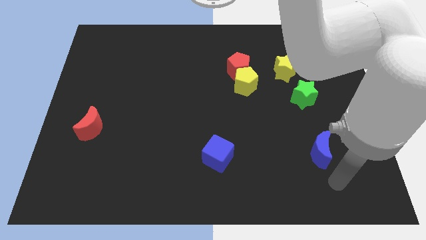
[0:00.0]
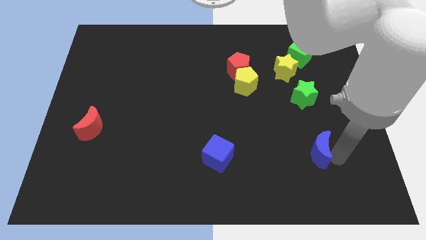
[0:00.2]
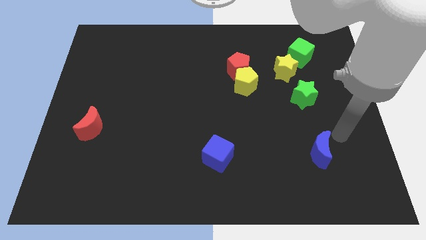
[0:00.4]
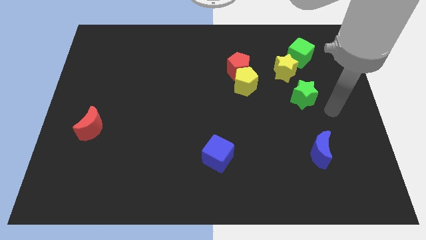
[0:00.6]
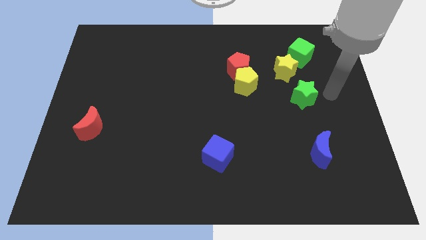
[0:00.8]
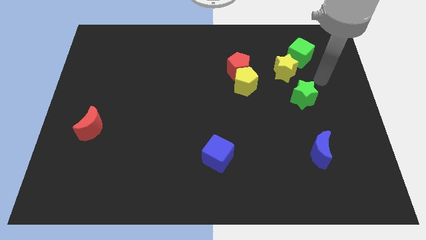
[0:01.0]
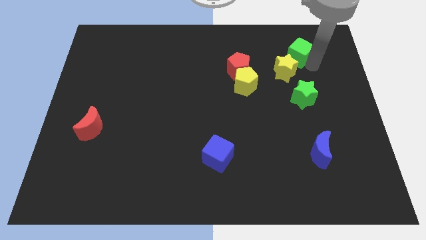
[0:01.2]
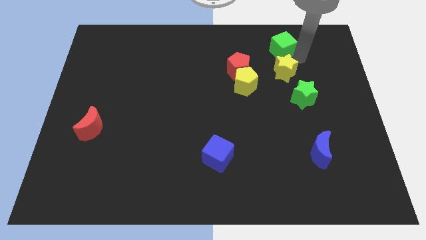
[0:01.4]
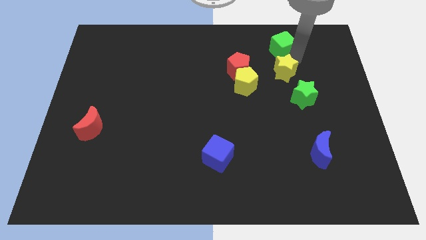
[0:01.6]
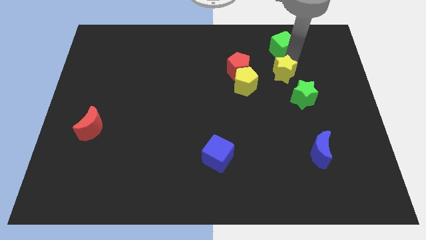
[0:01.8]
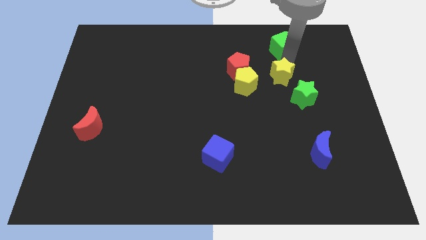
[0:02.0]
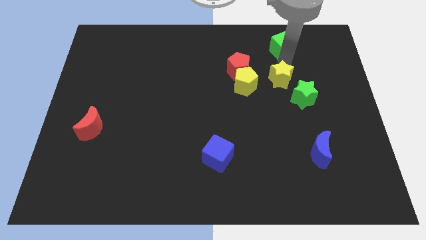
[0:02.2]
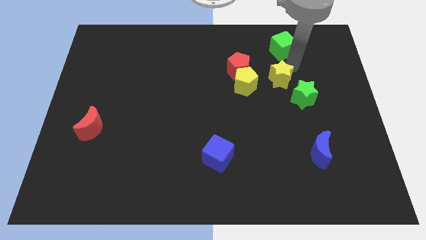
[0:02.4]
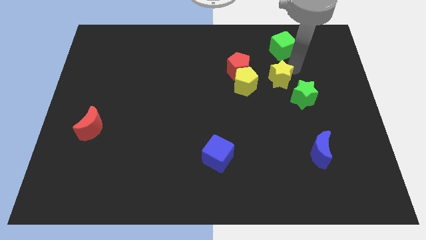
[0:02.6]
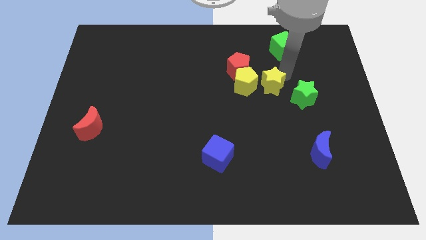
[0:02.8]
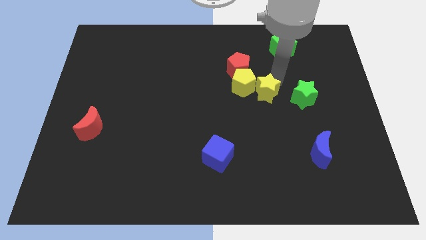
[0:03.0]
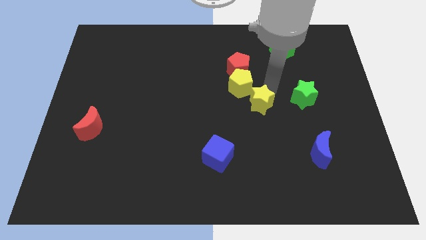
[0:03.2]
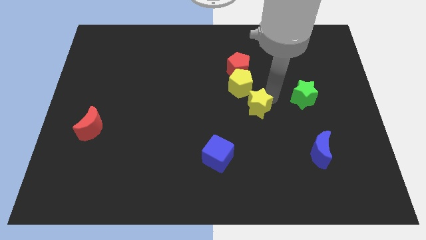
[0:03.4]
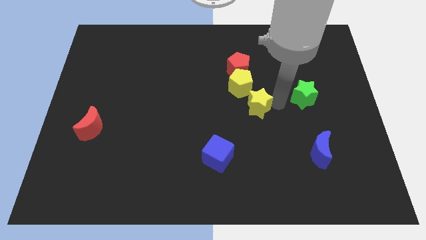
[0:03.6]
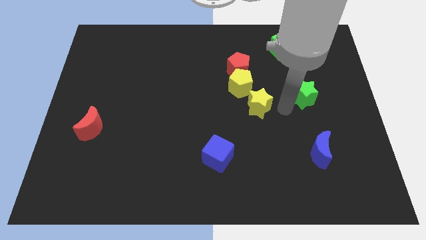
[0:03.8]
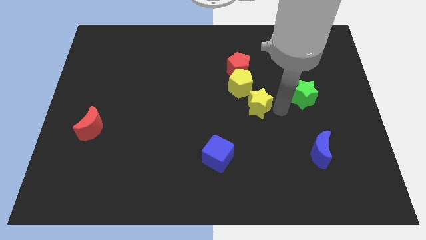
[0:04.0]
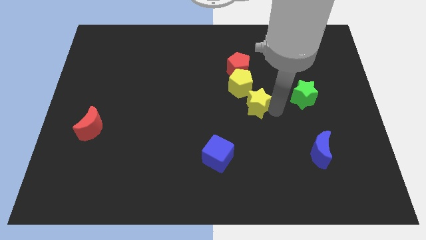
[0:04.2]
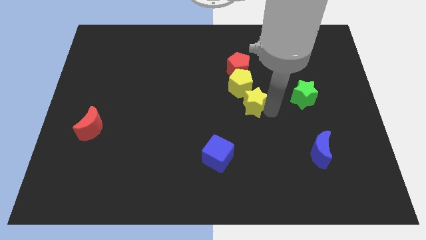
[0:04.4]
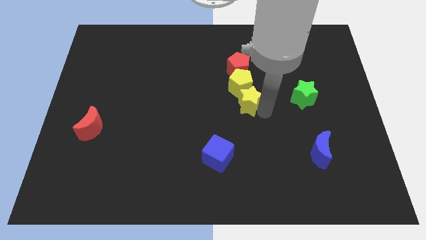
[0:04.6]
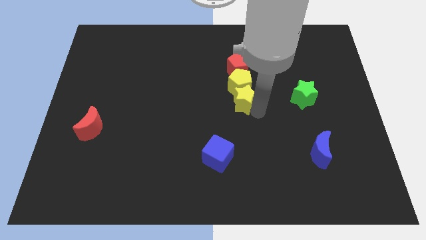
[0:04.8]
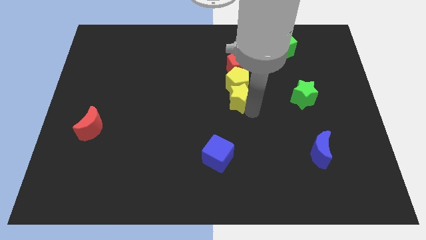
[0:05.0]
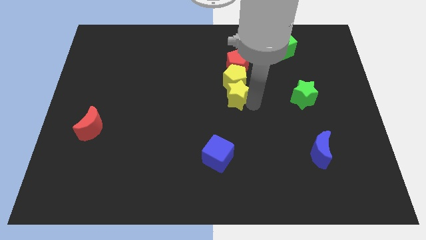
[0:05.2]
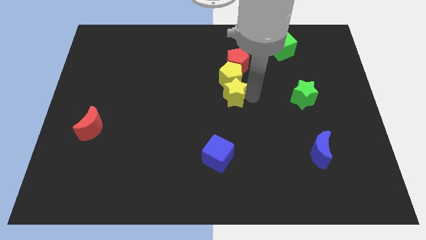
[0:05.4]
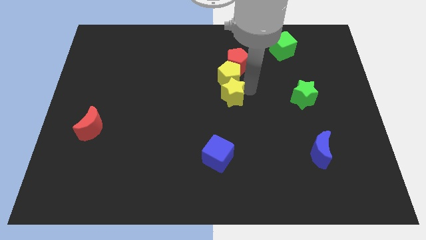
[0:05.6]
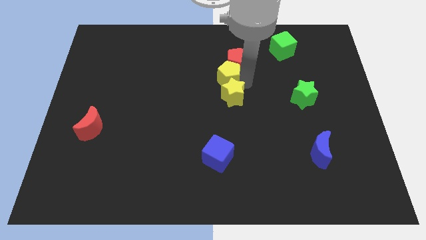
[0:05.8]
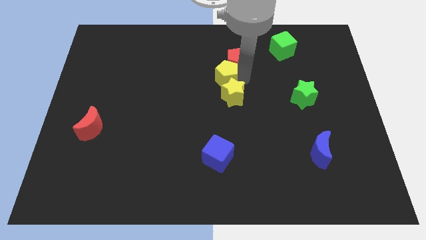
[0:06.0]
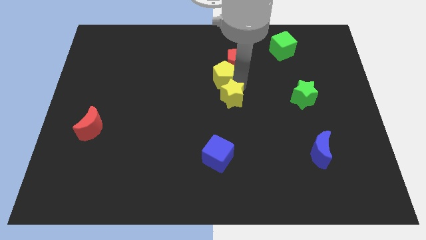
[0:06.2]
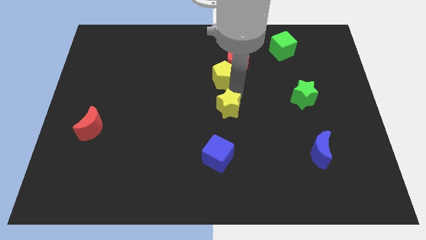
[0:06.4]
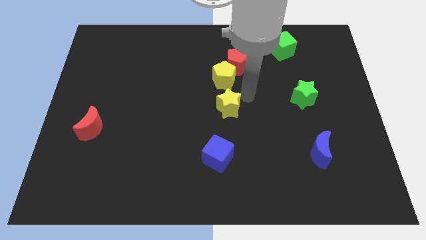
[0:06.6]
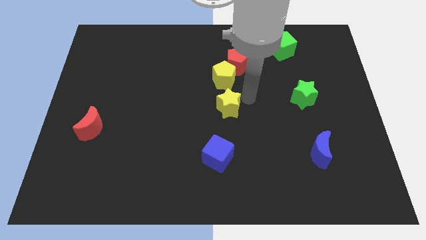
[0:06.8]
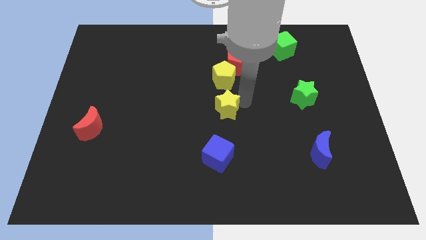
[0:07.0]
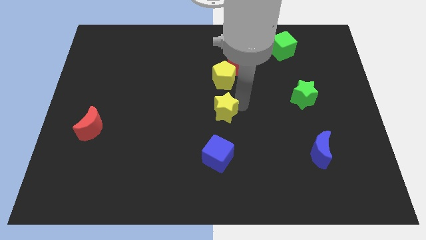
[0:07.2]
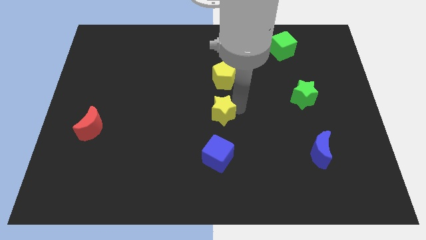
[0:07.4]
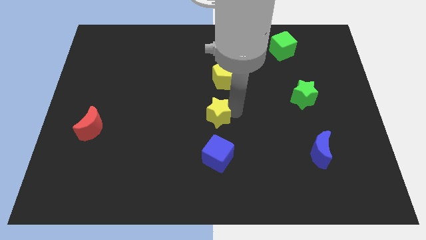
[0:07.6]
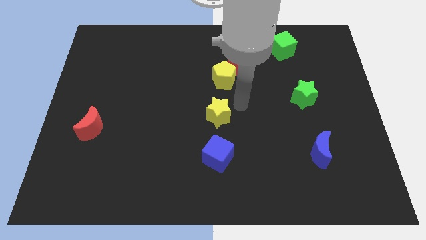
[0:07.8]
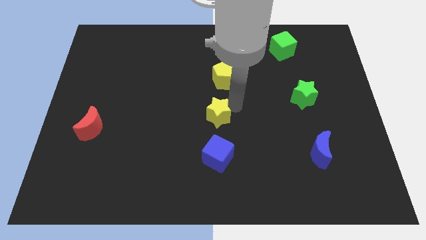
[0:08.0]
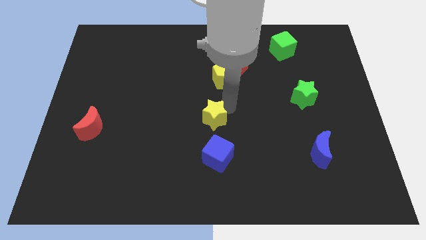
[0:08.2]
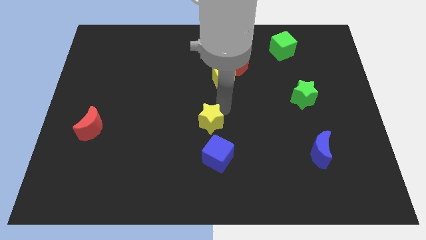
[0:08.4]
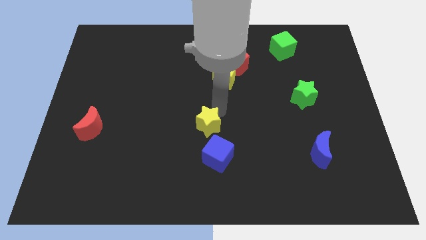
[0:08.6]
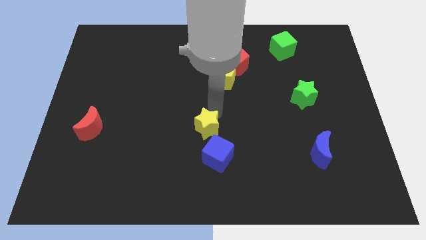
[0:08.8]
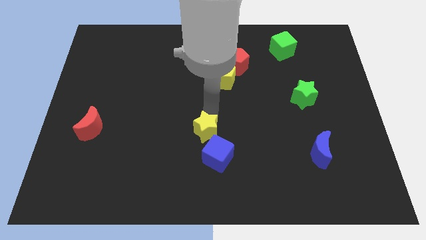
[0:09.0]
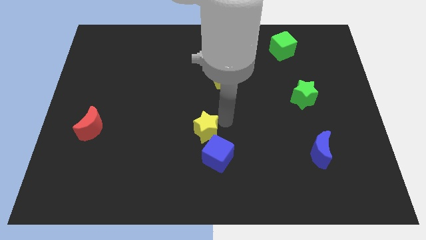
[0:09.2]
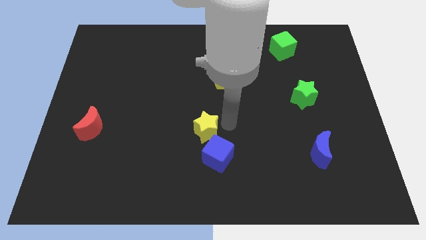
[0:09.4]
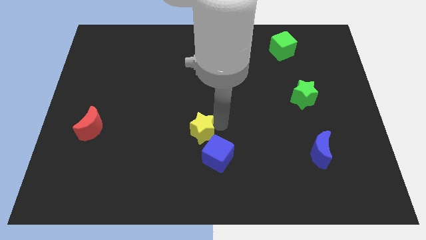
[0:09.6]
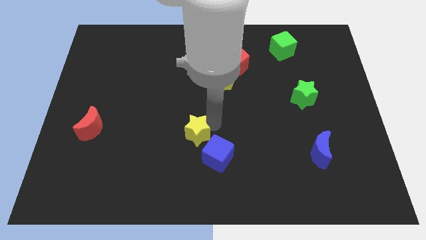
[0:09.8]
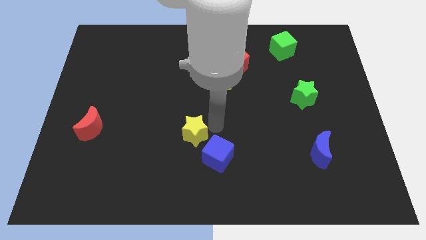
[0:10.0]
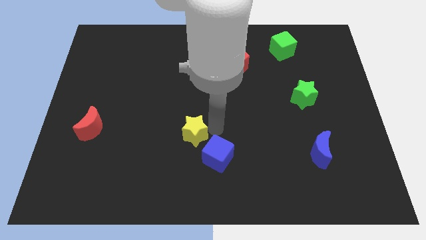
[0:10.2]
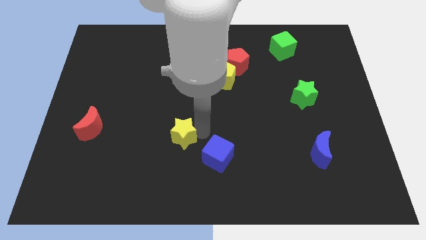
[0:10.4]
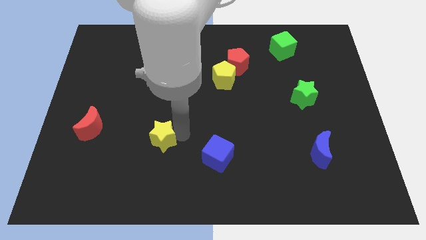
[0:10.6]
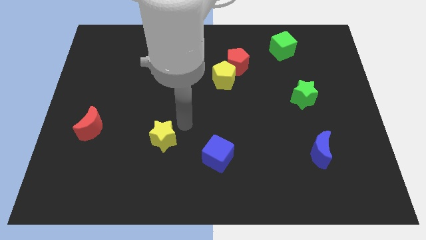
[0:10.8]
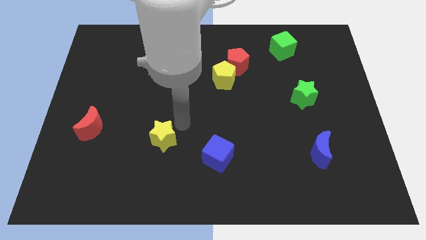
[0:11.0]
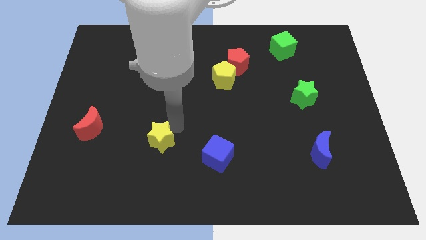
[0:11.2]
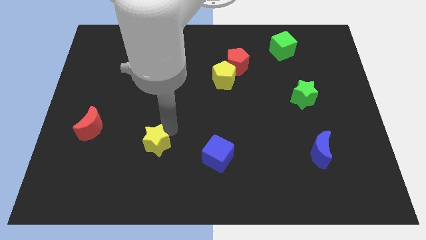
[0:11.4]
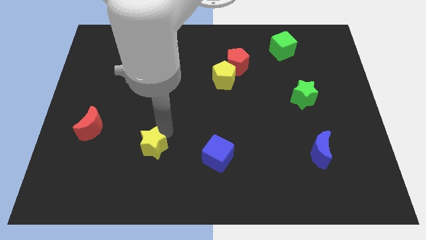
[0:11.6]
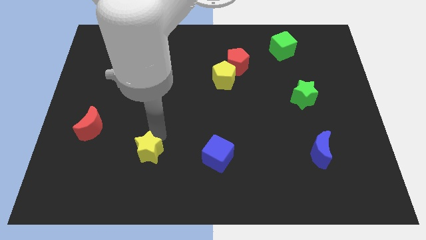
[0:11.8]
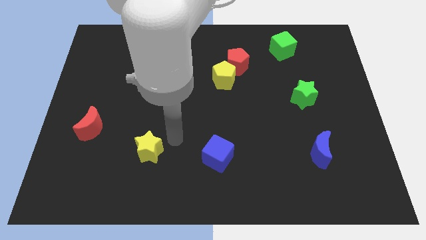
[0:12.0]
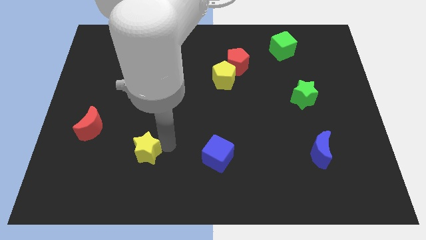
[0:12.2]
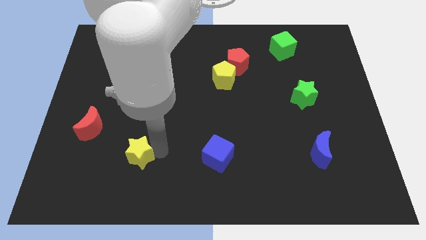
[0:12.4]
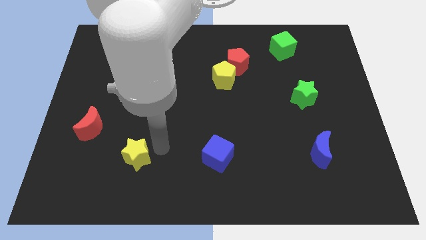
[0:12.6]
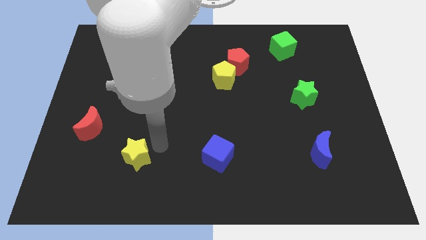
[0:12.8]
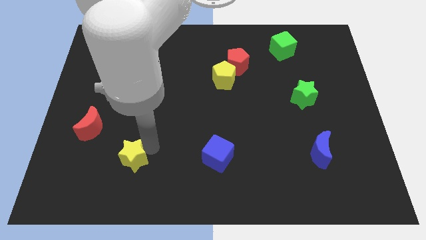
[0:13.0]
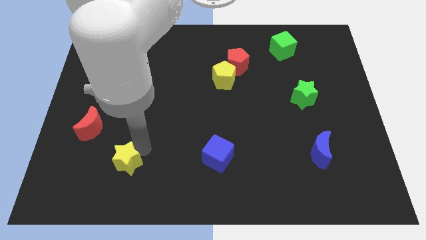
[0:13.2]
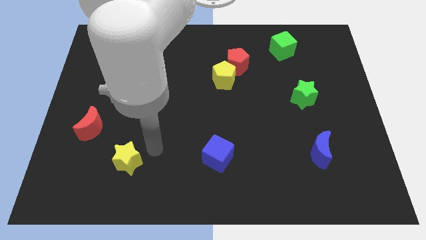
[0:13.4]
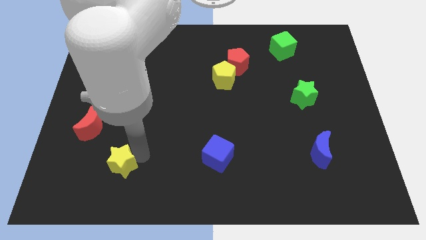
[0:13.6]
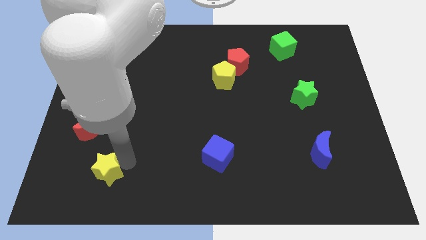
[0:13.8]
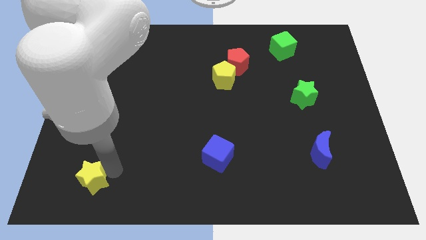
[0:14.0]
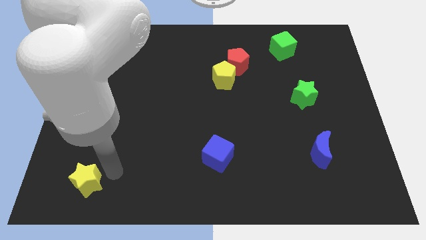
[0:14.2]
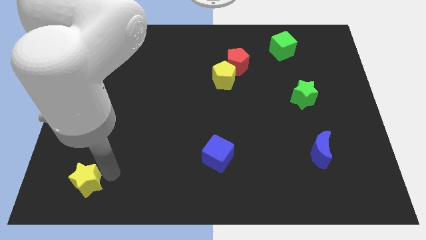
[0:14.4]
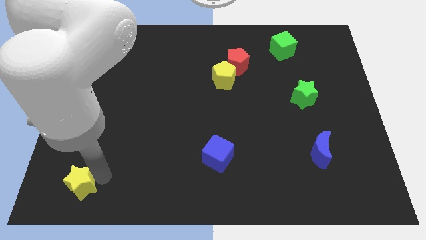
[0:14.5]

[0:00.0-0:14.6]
slide the yellow star to the bottom left corner
